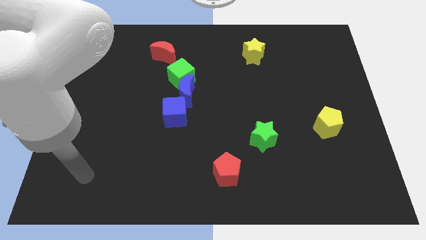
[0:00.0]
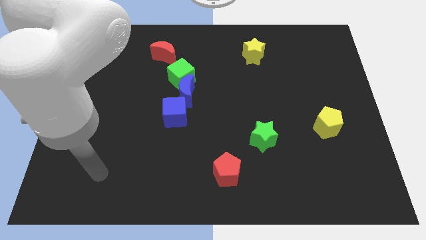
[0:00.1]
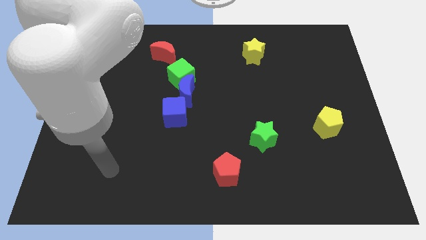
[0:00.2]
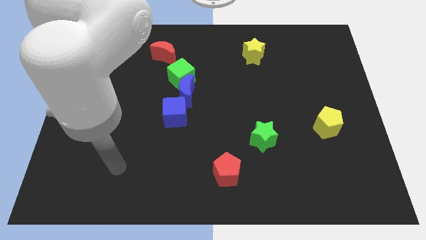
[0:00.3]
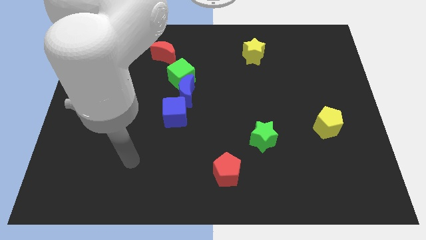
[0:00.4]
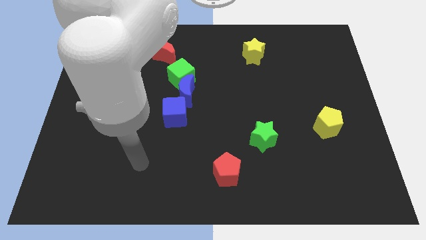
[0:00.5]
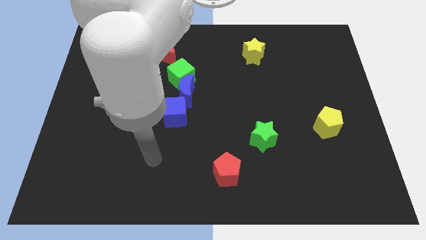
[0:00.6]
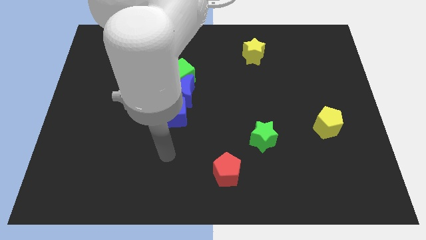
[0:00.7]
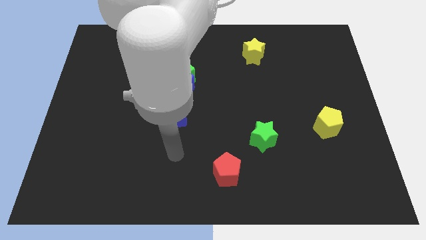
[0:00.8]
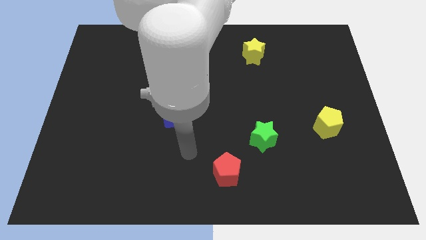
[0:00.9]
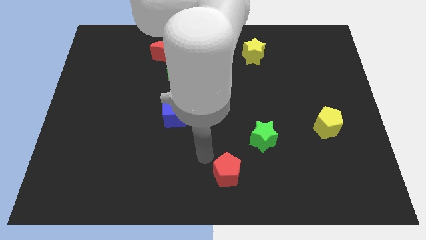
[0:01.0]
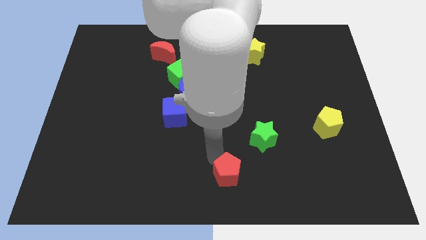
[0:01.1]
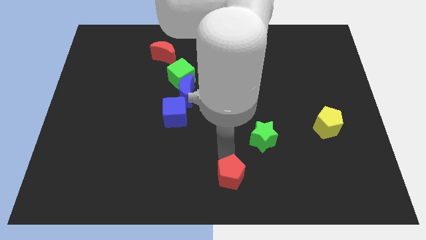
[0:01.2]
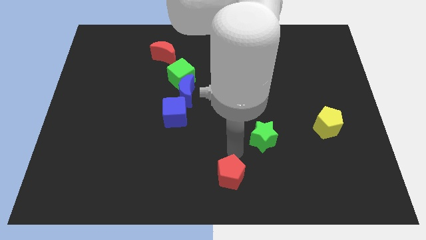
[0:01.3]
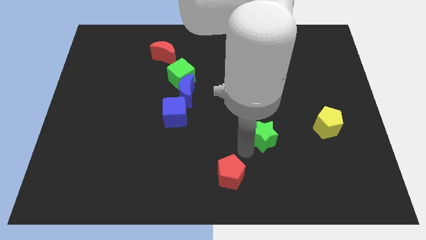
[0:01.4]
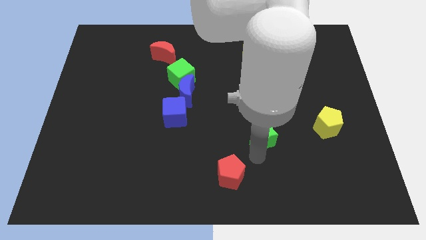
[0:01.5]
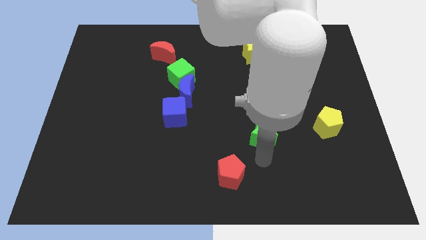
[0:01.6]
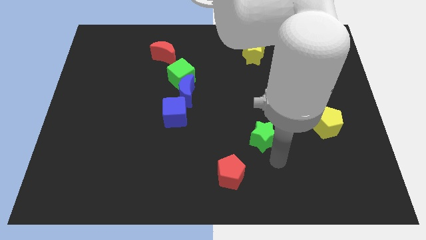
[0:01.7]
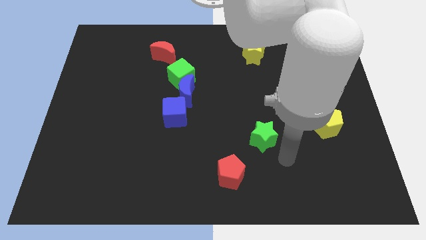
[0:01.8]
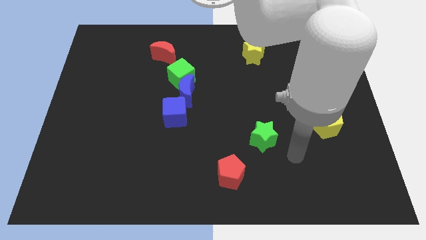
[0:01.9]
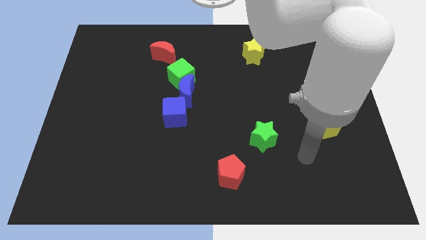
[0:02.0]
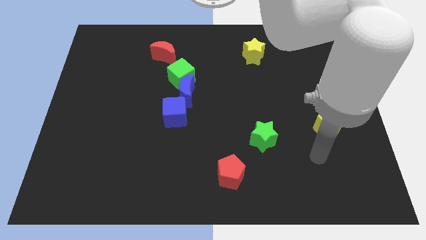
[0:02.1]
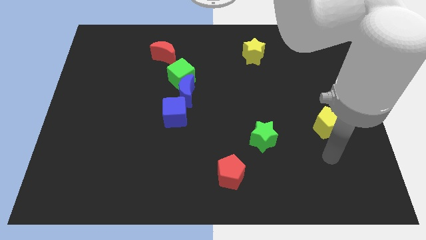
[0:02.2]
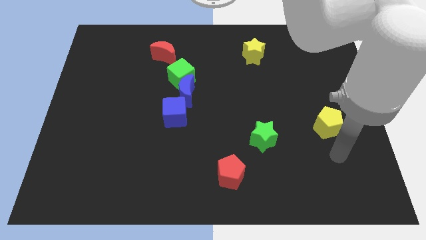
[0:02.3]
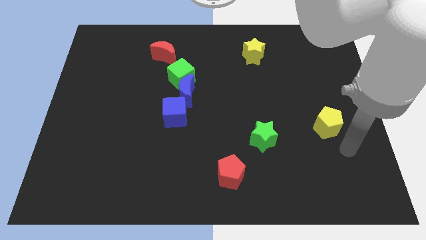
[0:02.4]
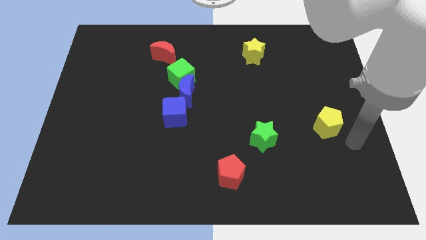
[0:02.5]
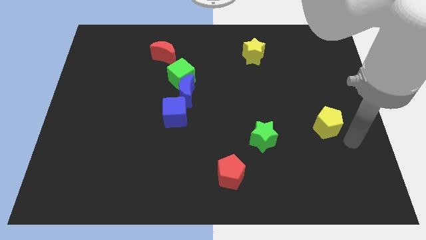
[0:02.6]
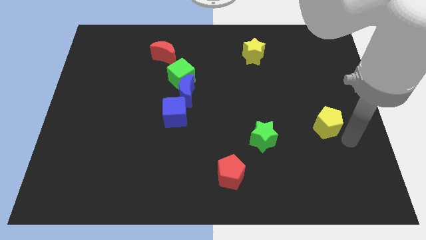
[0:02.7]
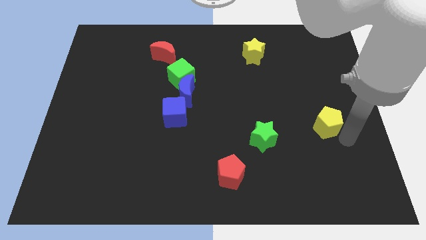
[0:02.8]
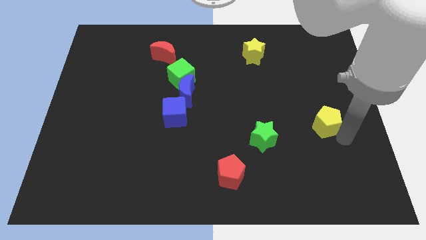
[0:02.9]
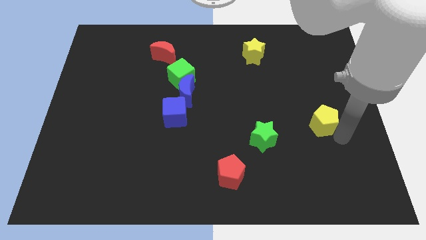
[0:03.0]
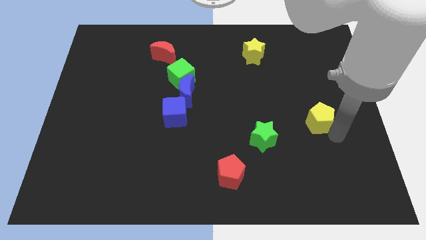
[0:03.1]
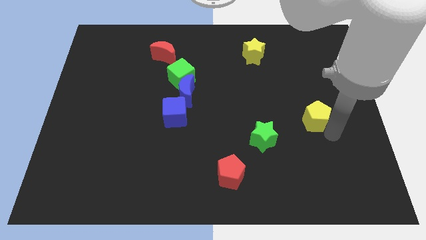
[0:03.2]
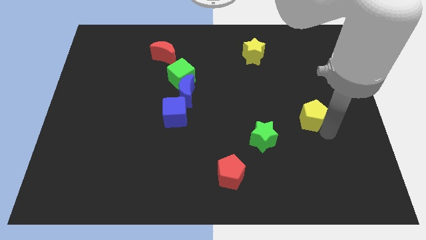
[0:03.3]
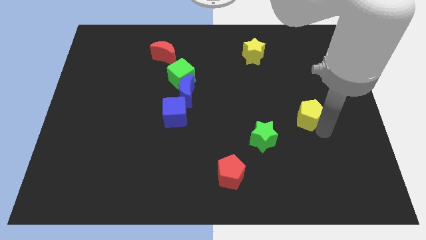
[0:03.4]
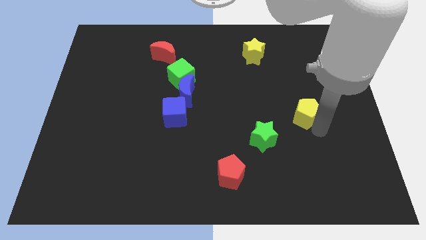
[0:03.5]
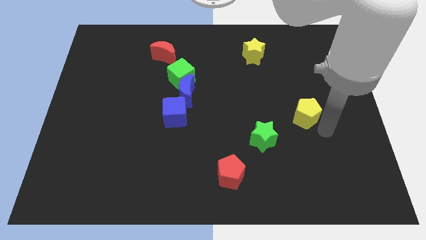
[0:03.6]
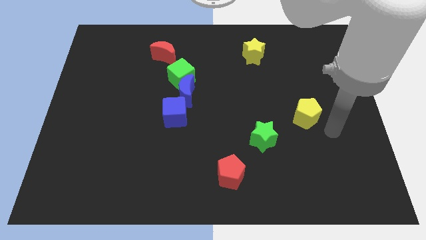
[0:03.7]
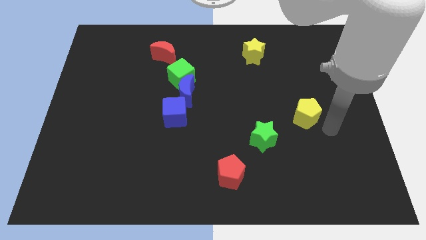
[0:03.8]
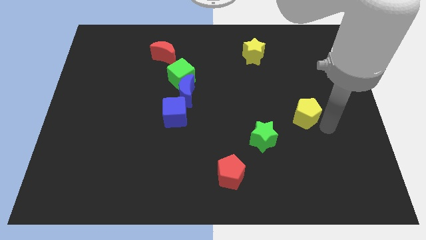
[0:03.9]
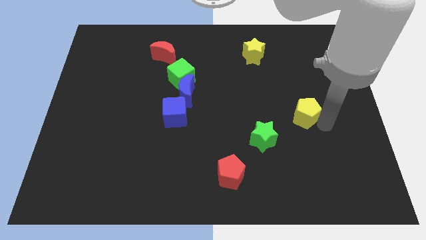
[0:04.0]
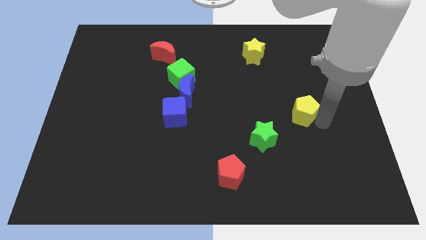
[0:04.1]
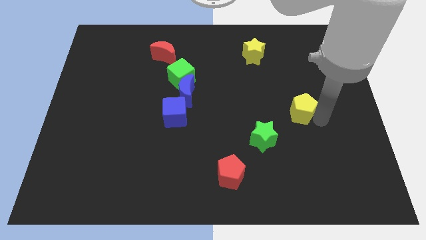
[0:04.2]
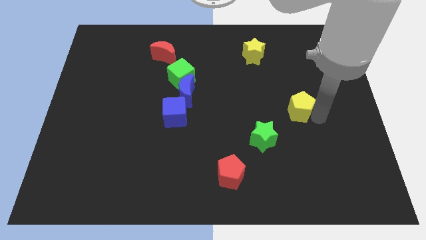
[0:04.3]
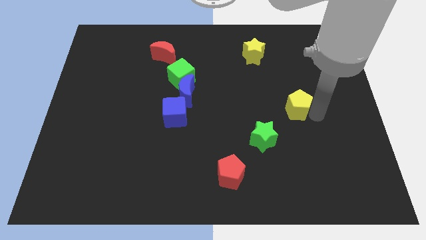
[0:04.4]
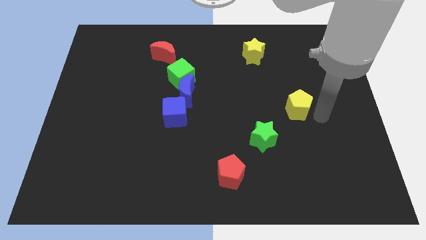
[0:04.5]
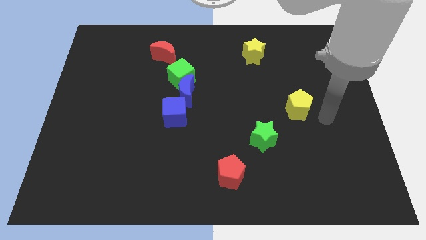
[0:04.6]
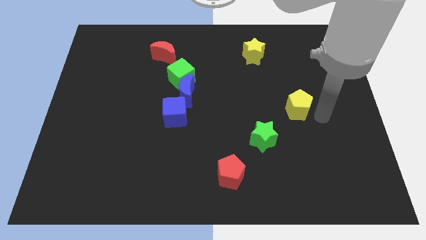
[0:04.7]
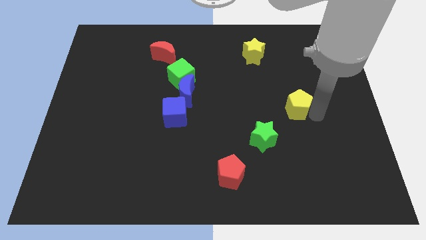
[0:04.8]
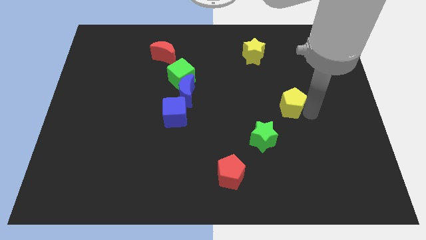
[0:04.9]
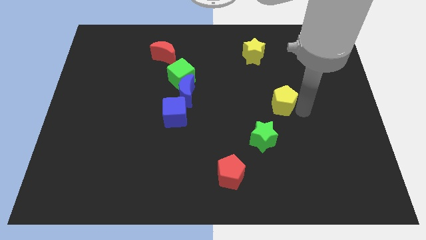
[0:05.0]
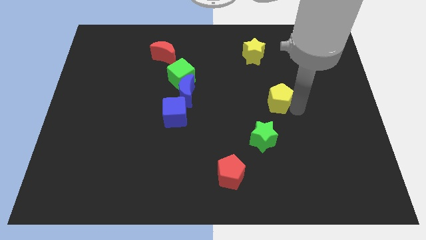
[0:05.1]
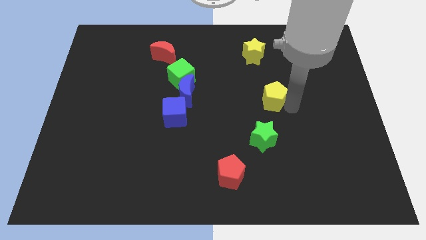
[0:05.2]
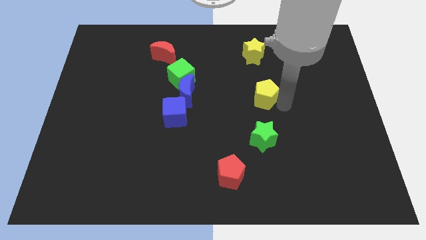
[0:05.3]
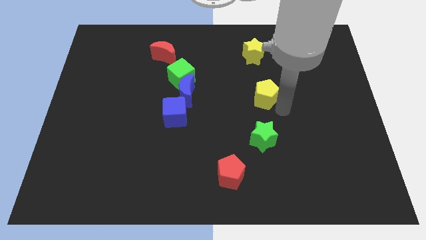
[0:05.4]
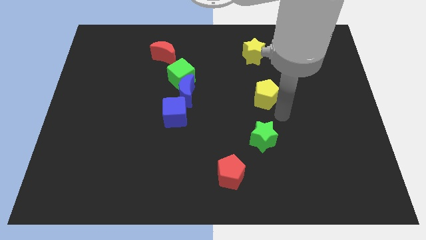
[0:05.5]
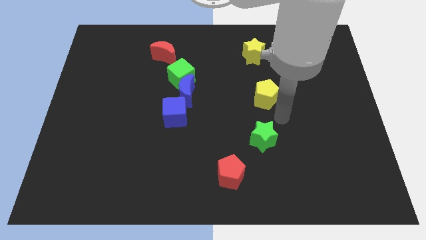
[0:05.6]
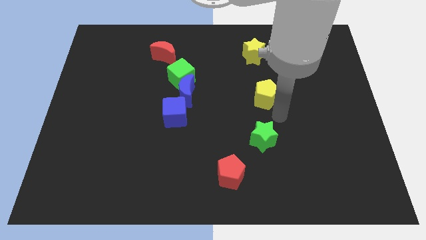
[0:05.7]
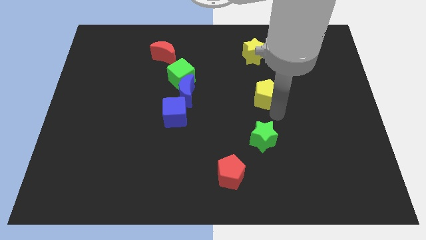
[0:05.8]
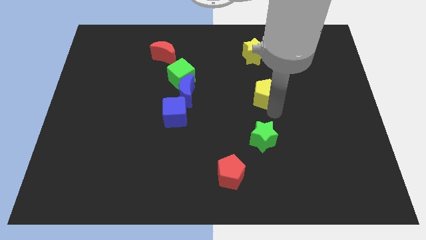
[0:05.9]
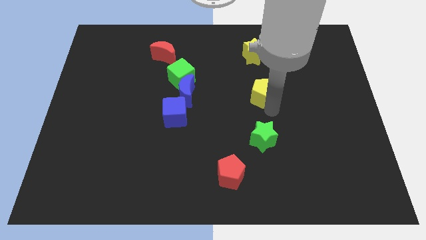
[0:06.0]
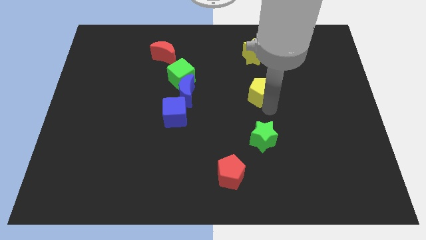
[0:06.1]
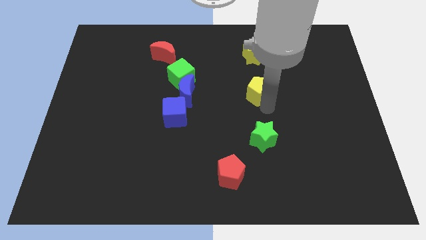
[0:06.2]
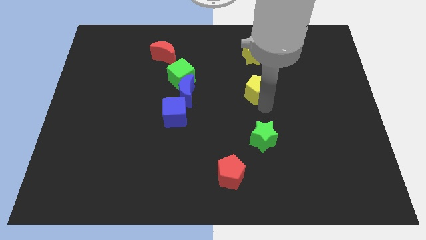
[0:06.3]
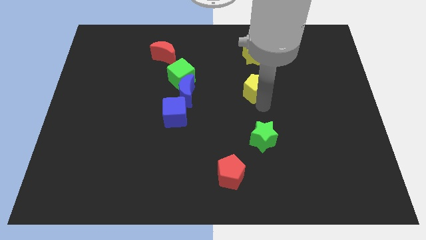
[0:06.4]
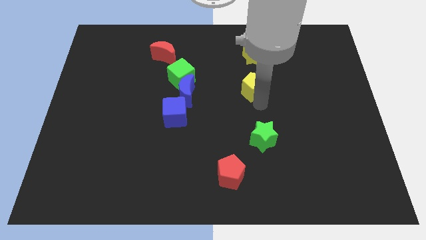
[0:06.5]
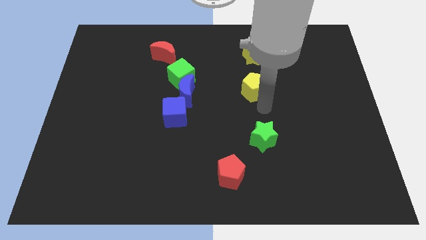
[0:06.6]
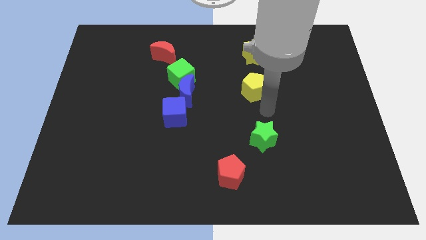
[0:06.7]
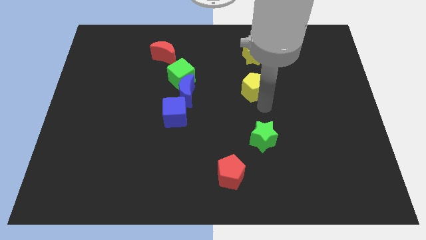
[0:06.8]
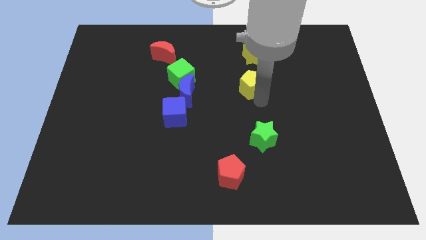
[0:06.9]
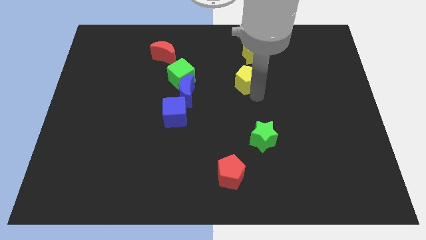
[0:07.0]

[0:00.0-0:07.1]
push the yellow pentagon upwards and then to the left

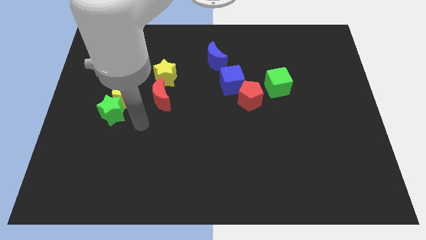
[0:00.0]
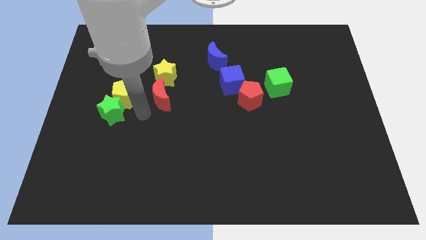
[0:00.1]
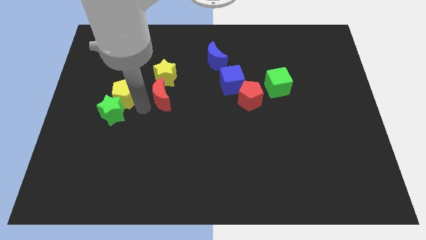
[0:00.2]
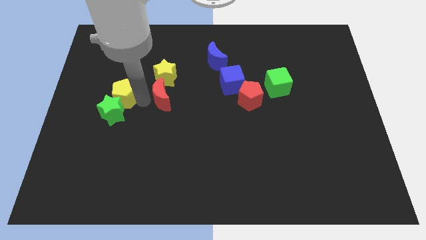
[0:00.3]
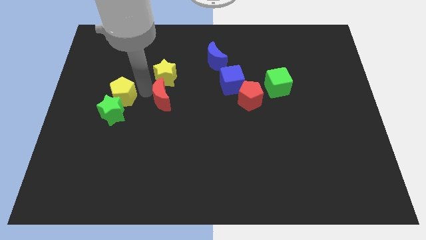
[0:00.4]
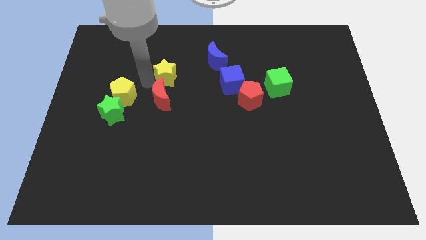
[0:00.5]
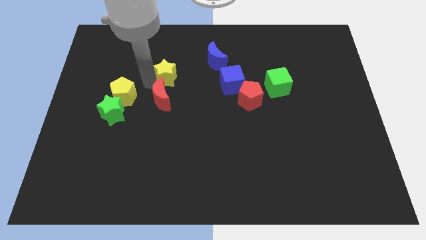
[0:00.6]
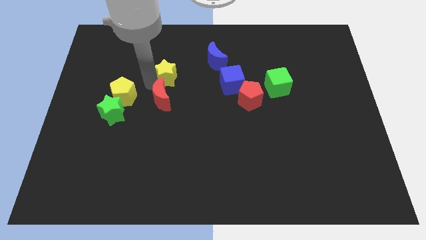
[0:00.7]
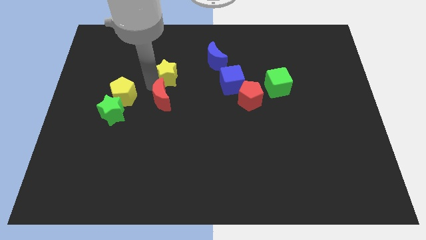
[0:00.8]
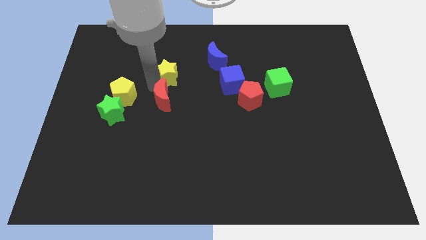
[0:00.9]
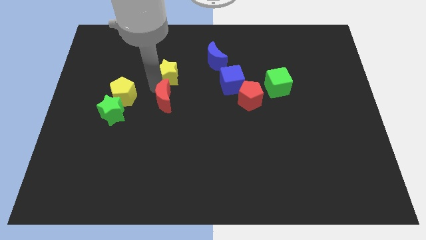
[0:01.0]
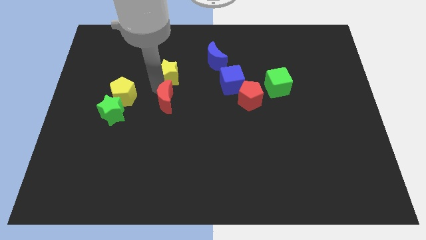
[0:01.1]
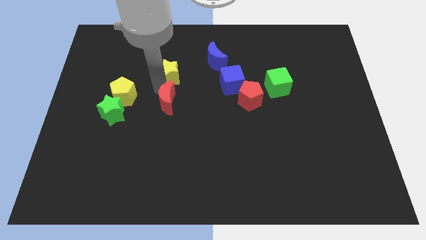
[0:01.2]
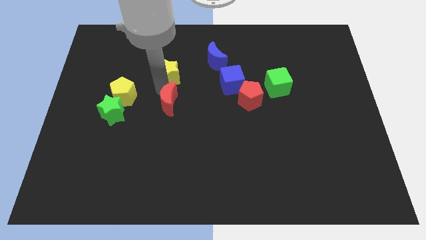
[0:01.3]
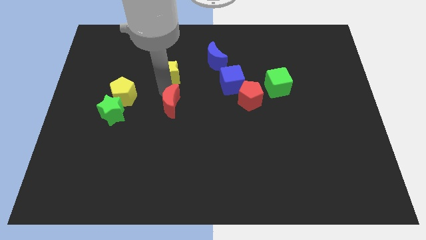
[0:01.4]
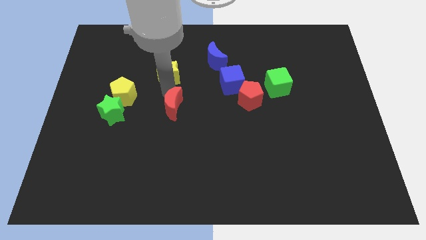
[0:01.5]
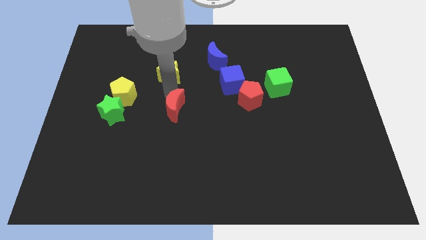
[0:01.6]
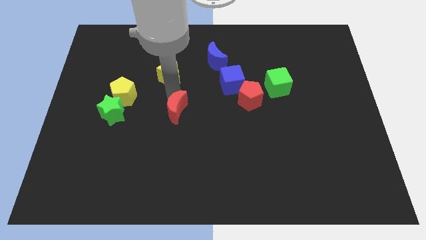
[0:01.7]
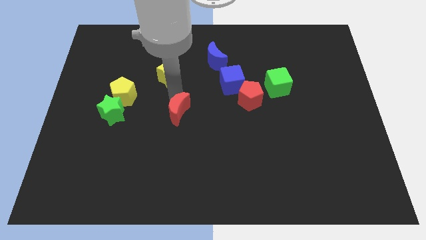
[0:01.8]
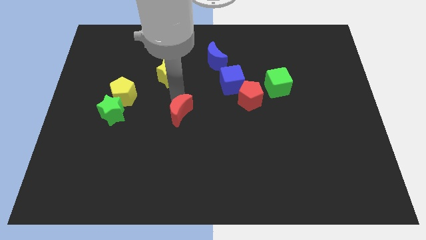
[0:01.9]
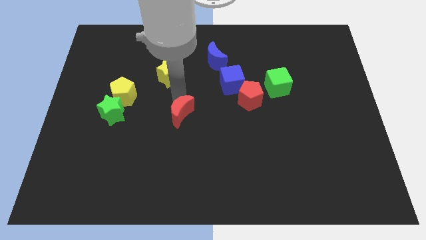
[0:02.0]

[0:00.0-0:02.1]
slightly push the red moon diagonally downwards and right
